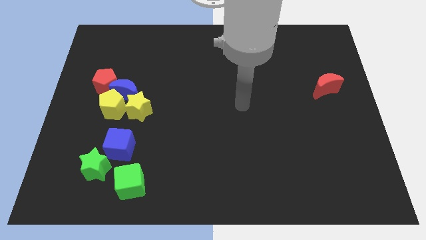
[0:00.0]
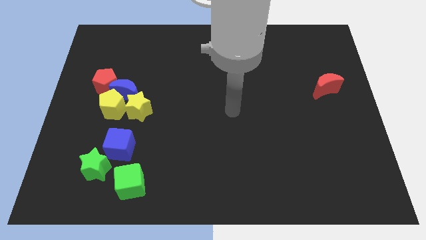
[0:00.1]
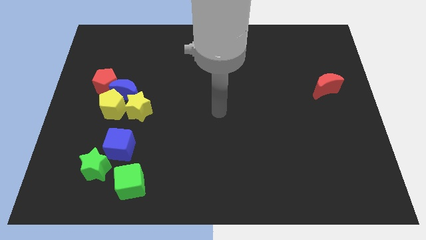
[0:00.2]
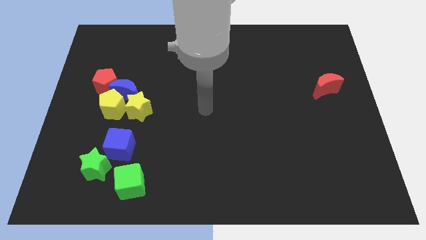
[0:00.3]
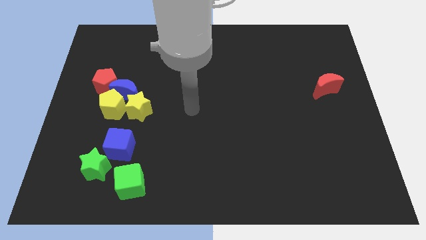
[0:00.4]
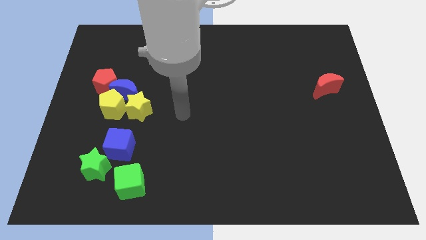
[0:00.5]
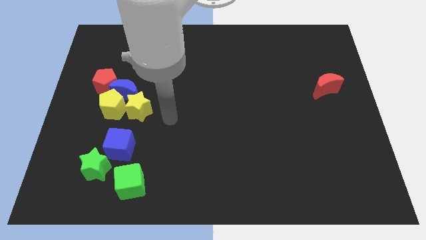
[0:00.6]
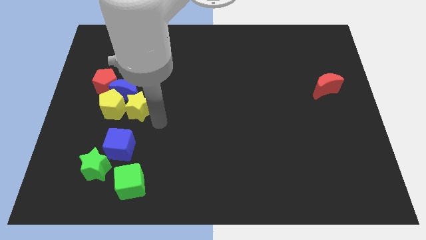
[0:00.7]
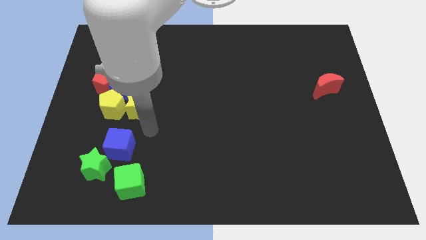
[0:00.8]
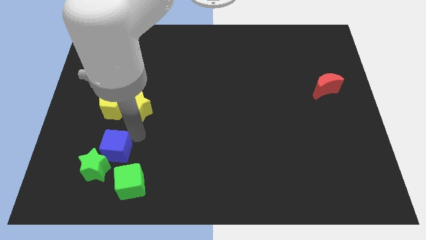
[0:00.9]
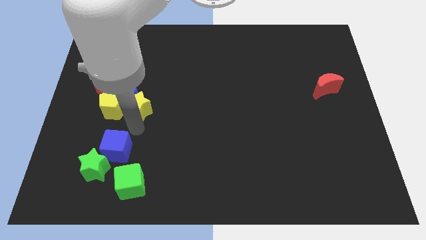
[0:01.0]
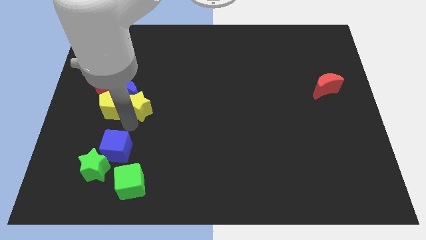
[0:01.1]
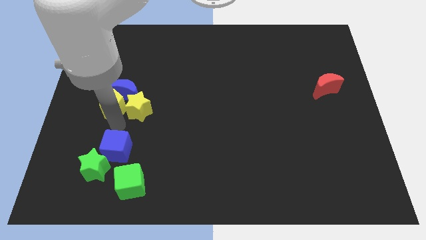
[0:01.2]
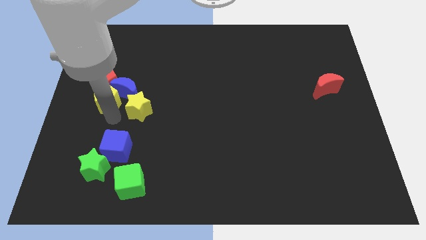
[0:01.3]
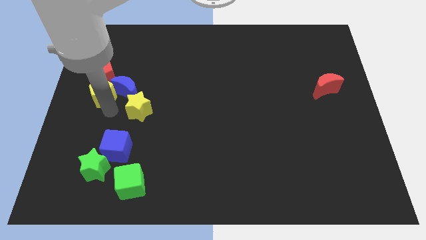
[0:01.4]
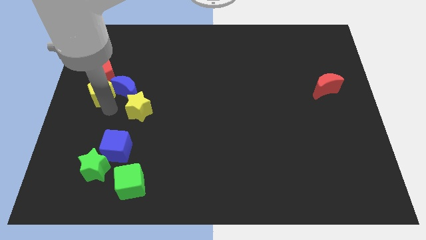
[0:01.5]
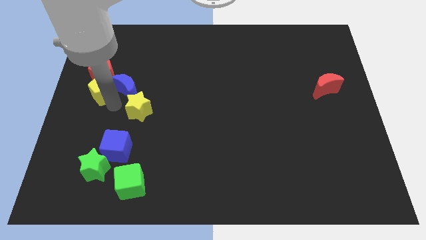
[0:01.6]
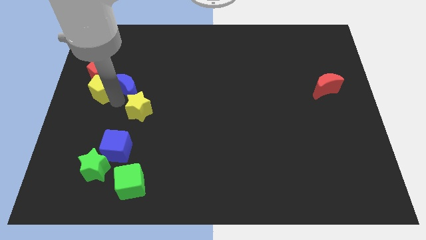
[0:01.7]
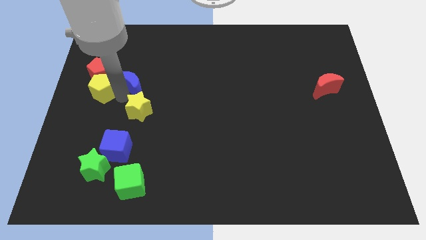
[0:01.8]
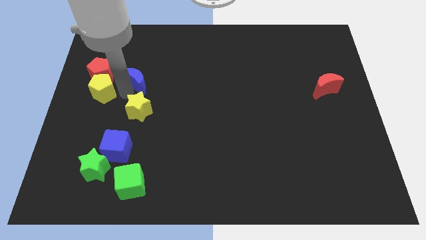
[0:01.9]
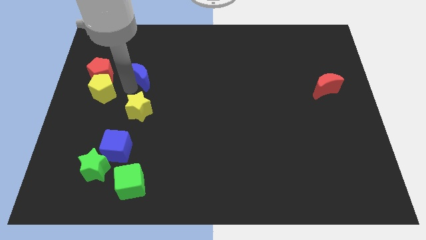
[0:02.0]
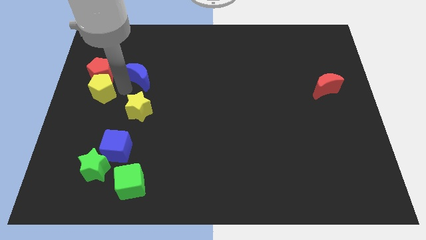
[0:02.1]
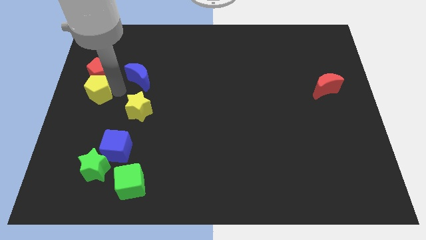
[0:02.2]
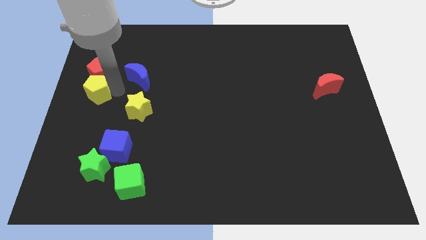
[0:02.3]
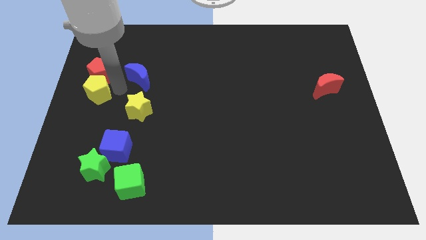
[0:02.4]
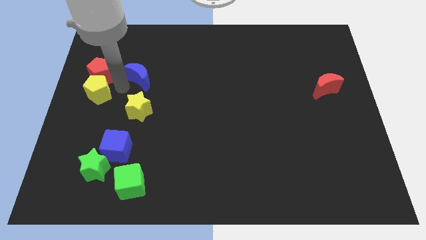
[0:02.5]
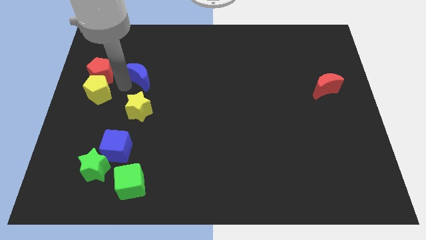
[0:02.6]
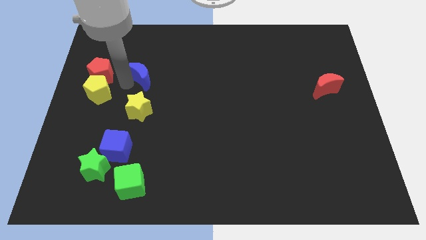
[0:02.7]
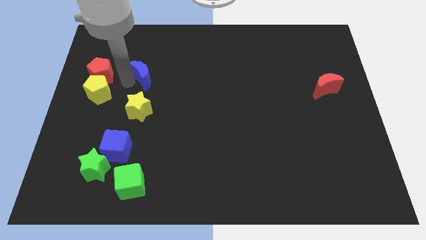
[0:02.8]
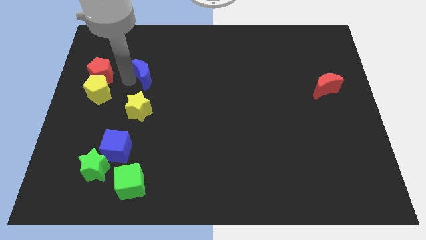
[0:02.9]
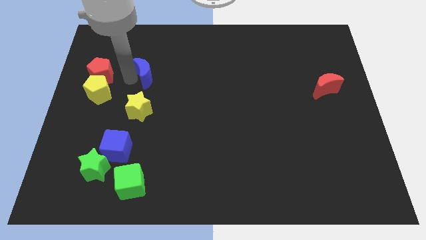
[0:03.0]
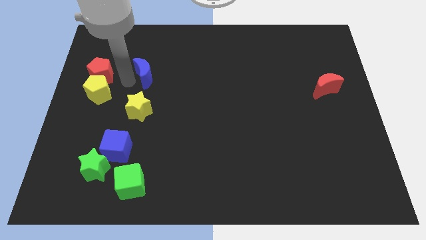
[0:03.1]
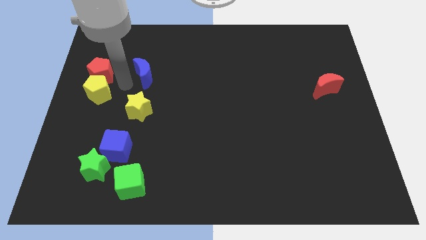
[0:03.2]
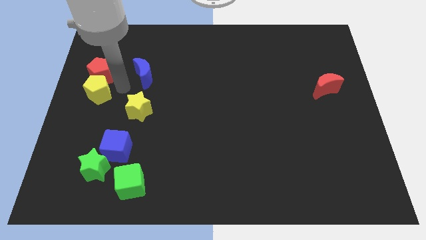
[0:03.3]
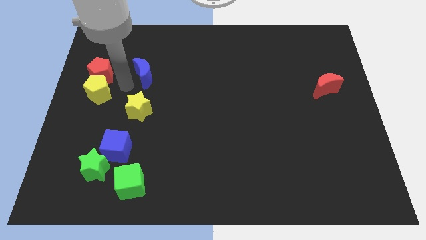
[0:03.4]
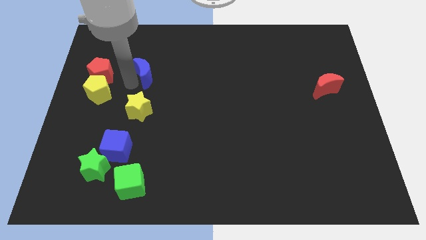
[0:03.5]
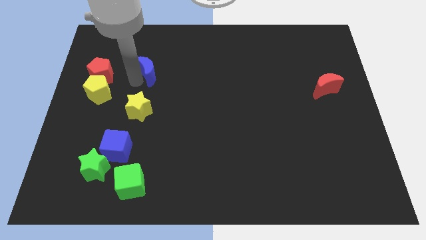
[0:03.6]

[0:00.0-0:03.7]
pull the blue moon apart from the yellow pentagon, red pentagon, and yellow star

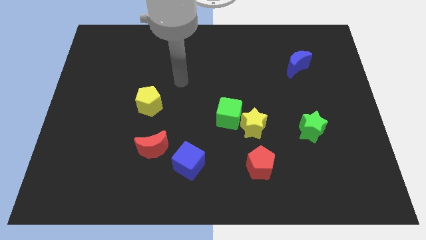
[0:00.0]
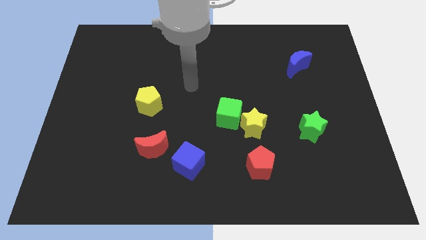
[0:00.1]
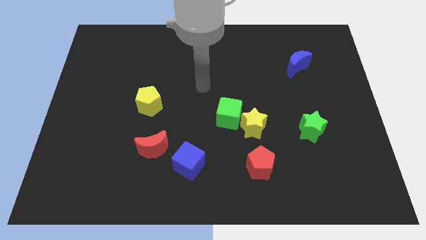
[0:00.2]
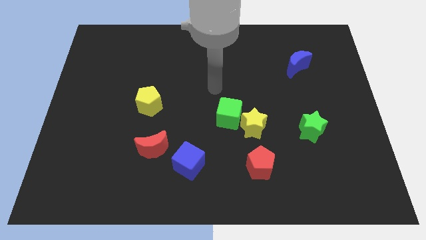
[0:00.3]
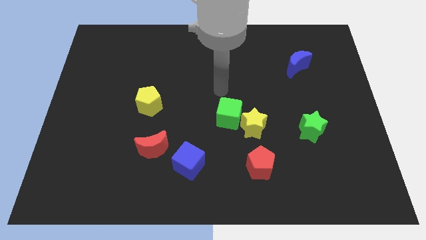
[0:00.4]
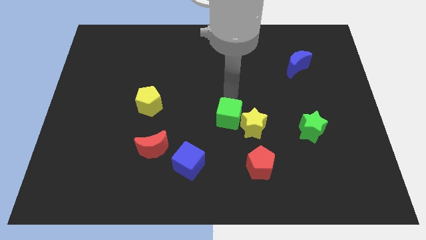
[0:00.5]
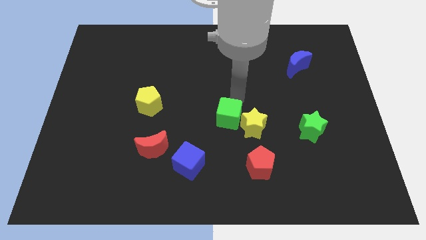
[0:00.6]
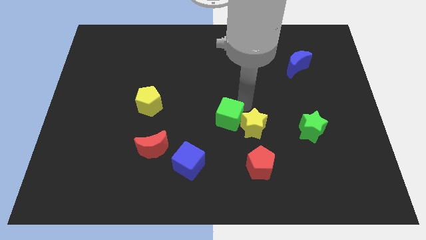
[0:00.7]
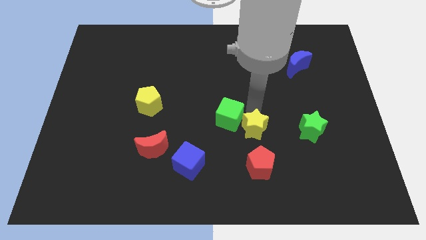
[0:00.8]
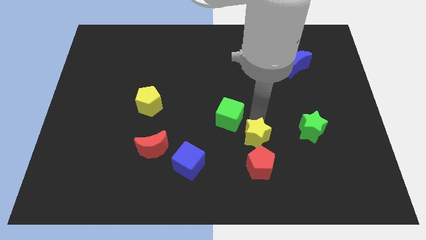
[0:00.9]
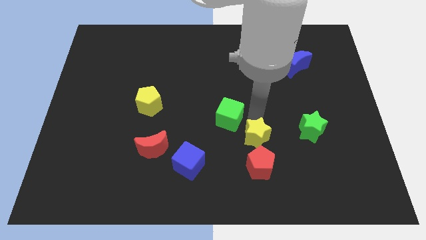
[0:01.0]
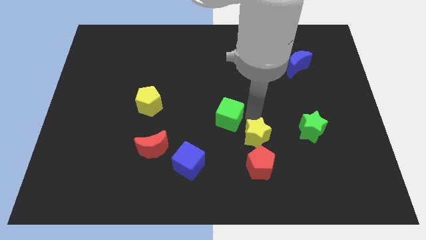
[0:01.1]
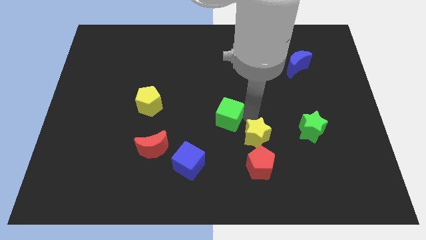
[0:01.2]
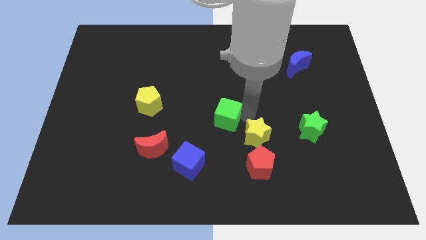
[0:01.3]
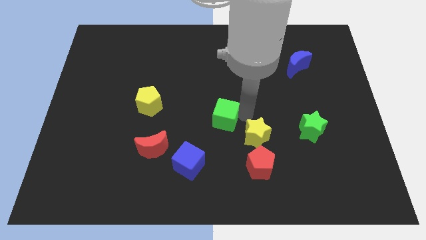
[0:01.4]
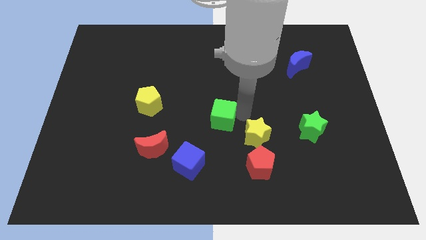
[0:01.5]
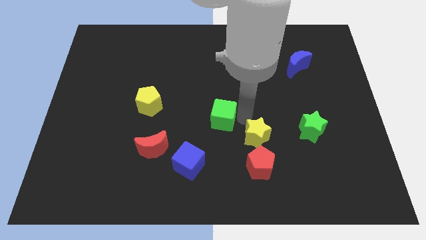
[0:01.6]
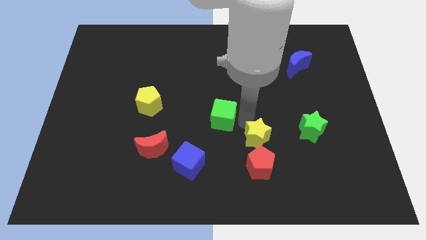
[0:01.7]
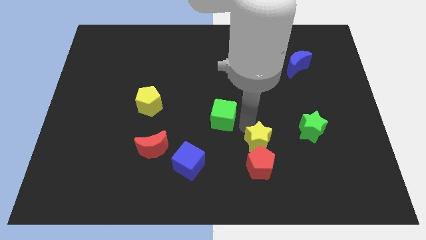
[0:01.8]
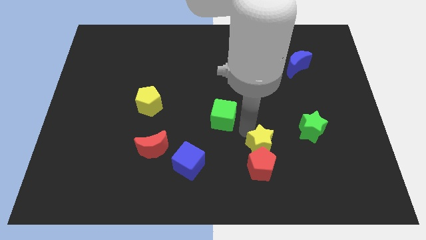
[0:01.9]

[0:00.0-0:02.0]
pull the green cube apart from the yellow star

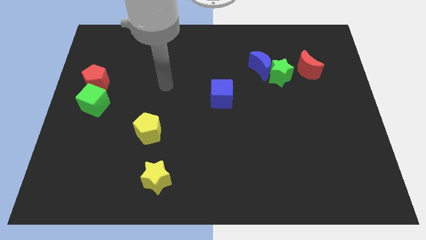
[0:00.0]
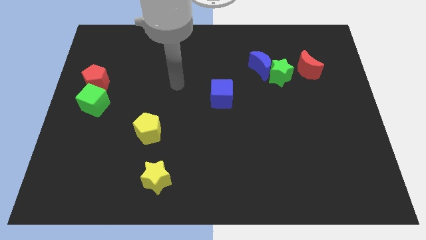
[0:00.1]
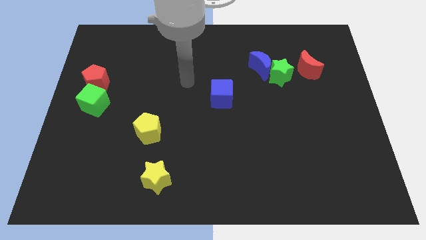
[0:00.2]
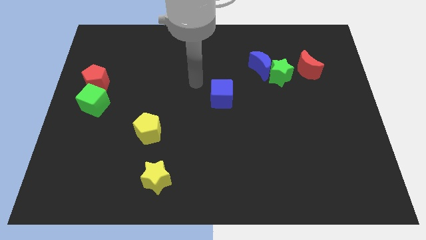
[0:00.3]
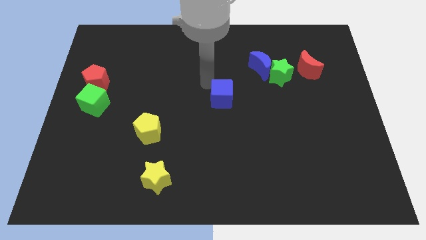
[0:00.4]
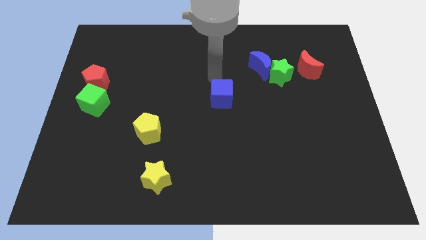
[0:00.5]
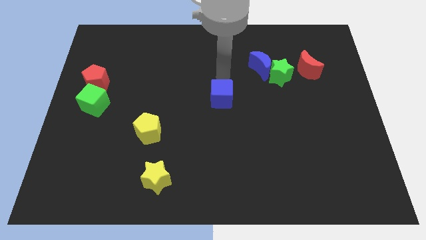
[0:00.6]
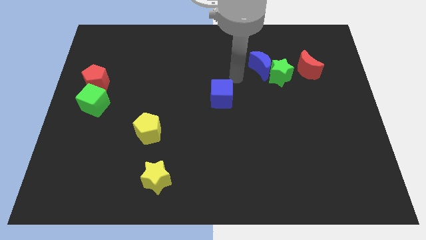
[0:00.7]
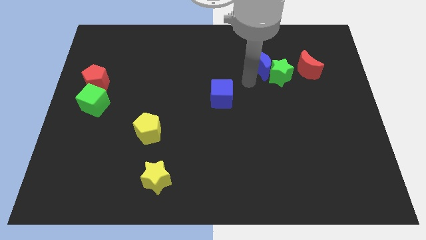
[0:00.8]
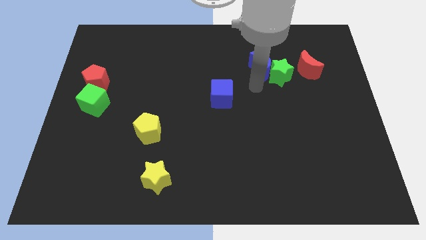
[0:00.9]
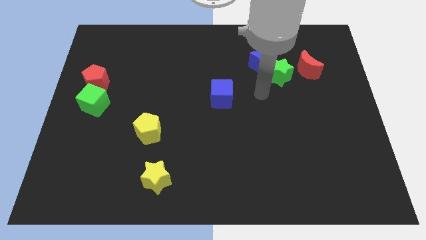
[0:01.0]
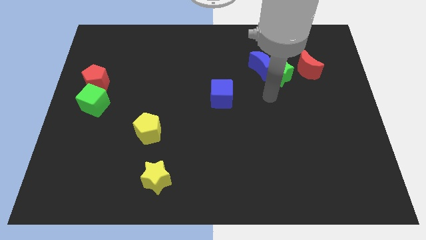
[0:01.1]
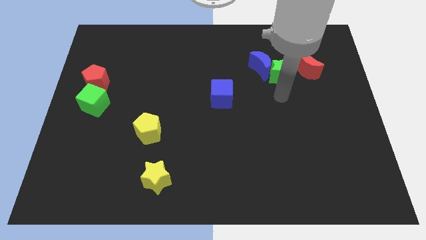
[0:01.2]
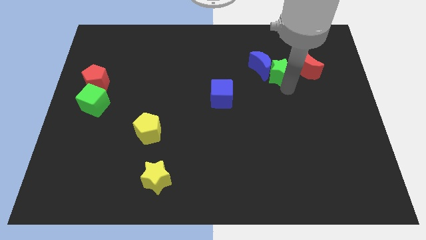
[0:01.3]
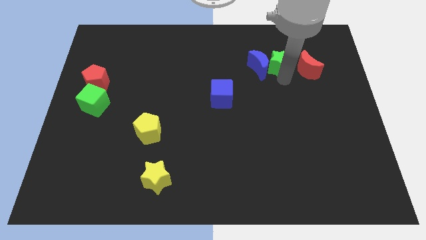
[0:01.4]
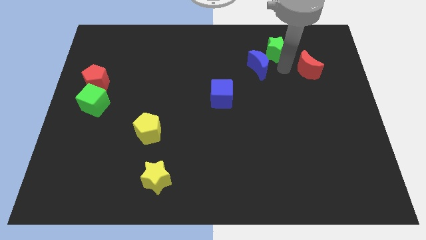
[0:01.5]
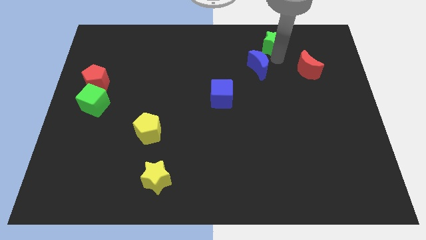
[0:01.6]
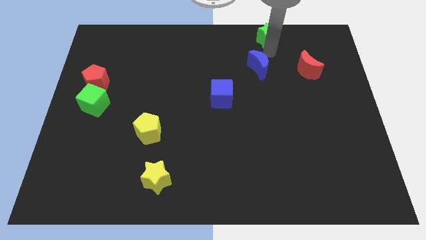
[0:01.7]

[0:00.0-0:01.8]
separate the blue moon from the green star

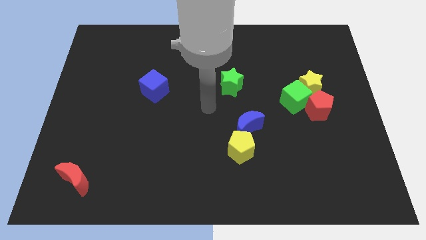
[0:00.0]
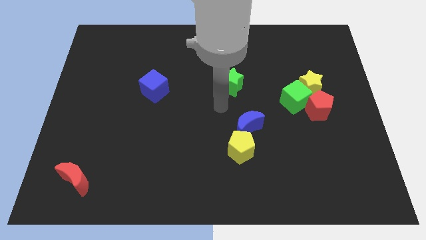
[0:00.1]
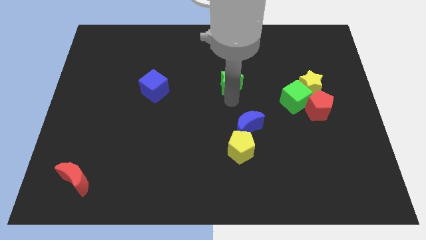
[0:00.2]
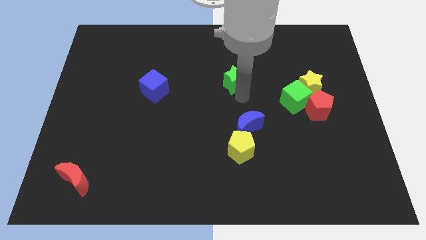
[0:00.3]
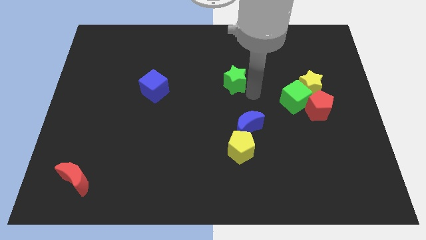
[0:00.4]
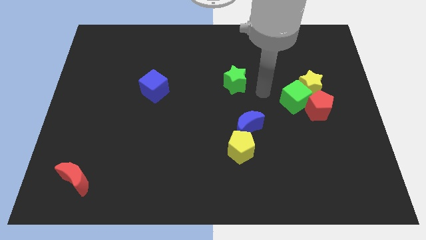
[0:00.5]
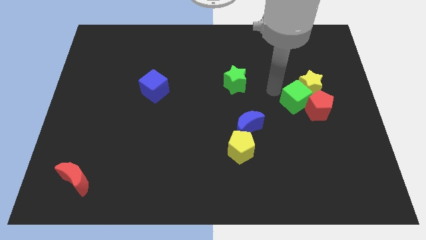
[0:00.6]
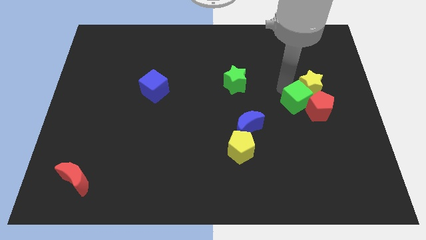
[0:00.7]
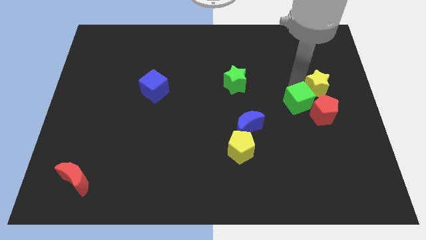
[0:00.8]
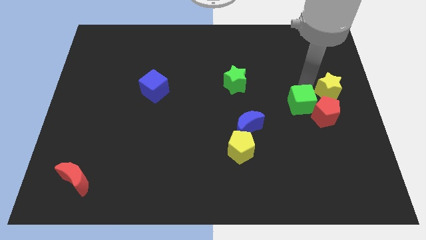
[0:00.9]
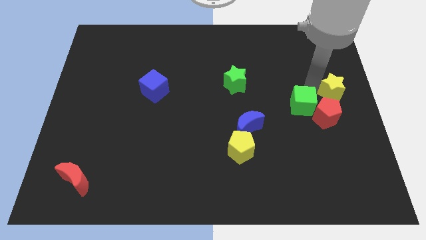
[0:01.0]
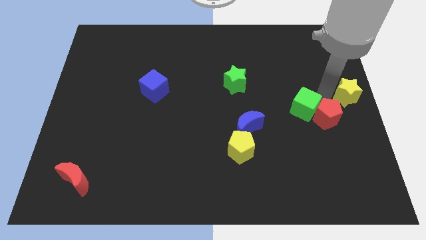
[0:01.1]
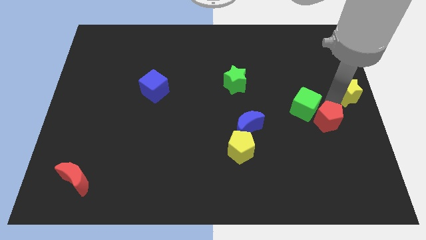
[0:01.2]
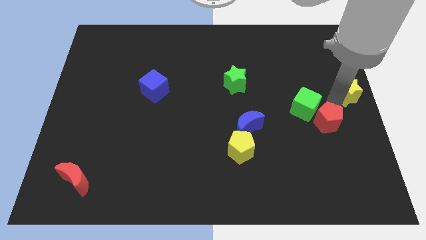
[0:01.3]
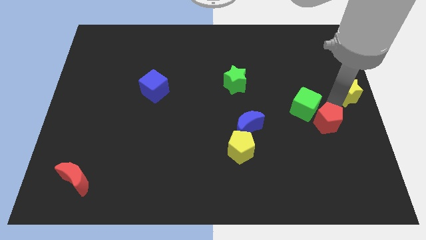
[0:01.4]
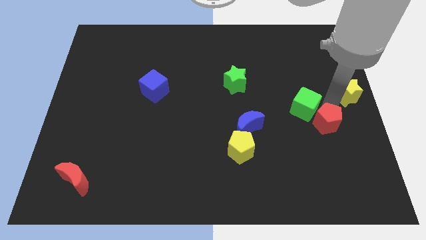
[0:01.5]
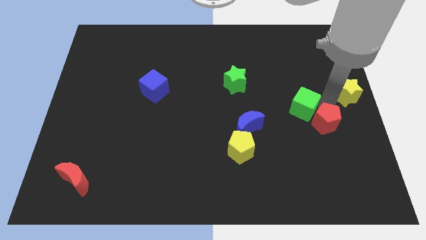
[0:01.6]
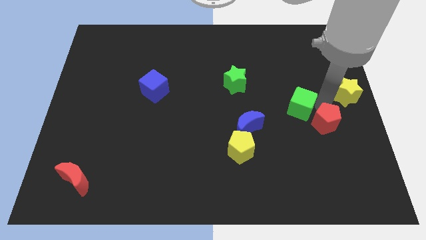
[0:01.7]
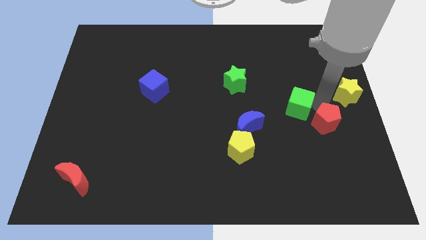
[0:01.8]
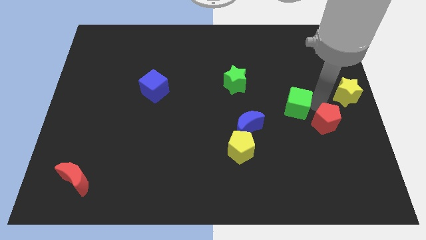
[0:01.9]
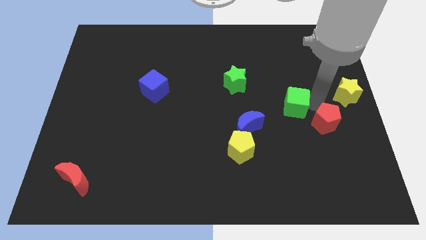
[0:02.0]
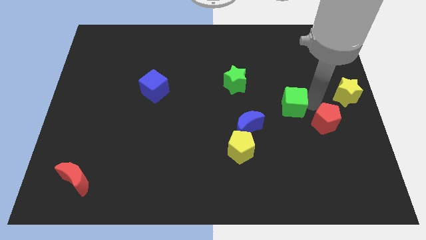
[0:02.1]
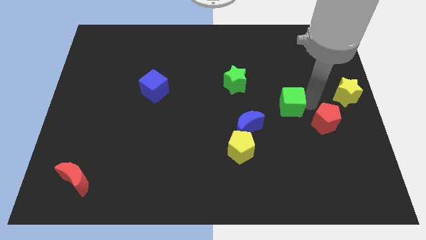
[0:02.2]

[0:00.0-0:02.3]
separate the green cube from the yellow star and red pentagon
